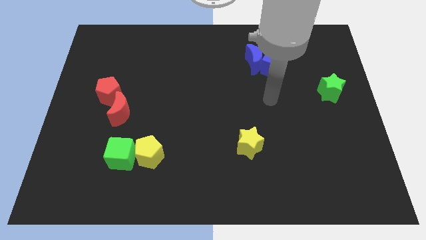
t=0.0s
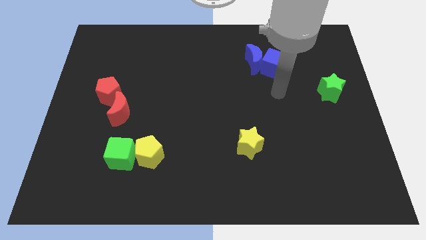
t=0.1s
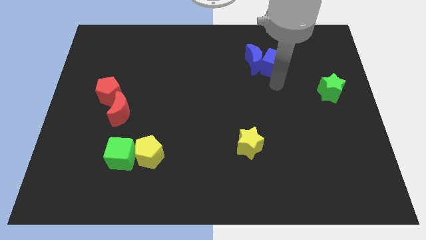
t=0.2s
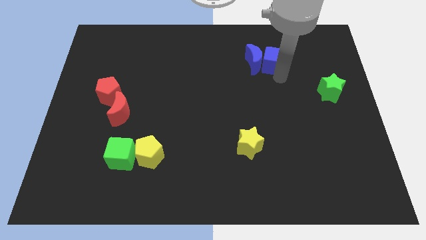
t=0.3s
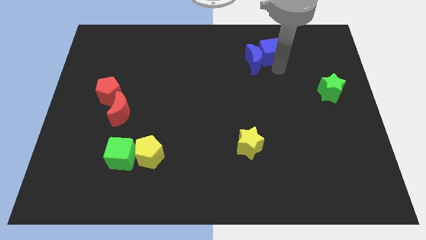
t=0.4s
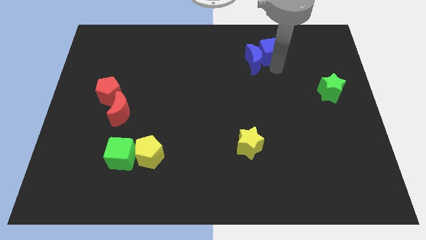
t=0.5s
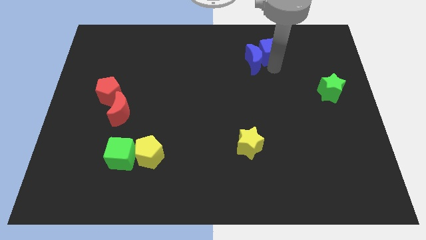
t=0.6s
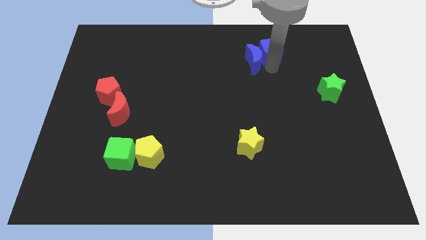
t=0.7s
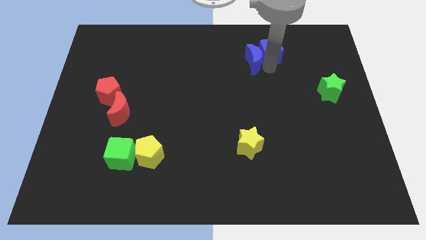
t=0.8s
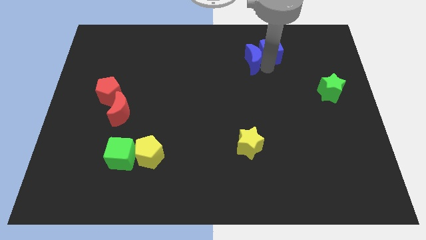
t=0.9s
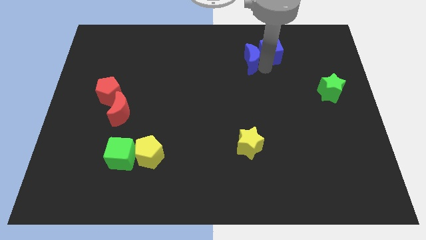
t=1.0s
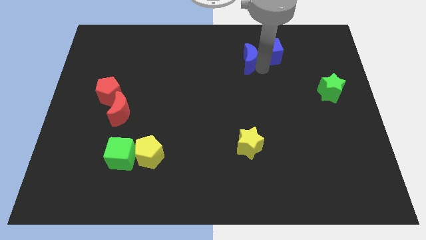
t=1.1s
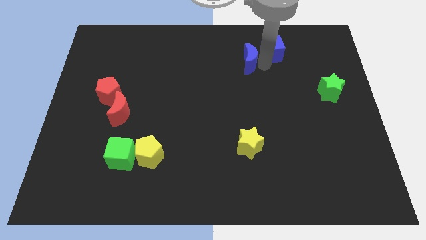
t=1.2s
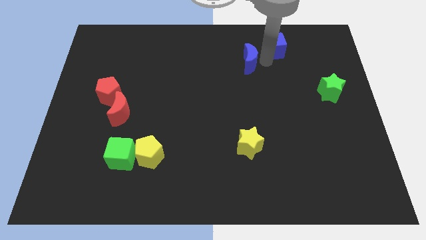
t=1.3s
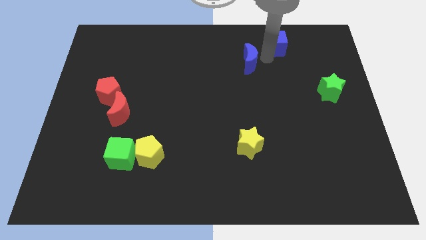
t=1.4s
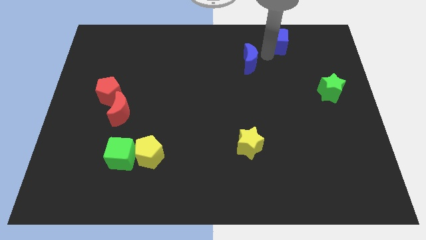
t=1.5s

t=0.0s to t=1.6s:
separate the blue moon from the blue cube

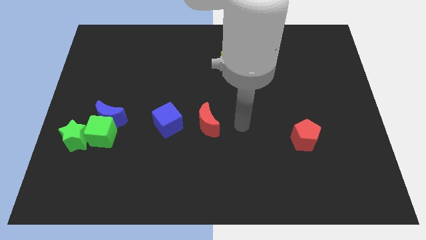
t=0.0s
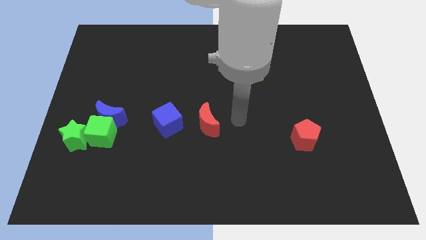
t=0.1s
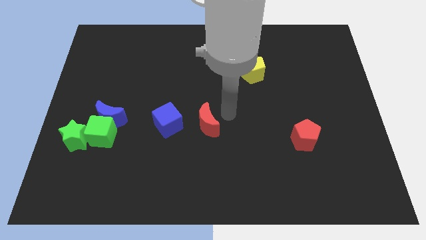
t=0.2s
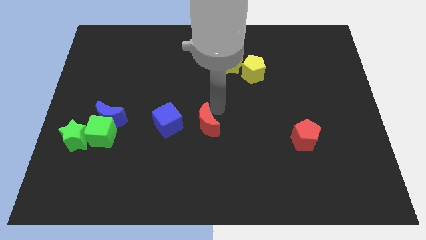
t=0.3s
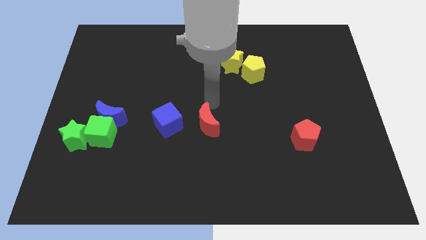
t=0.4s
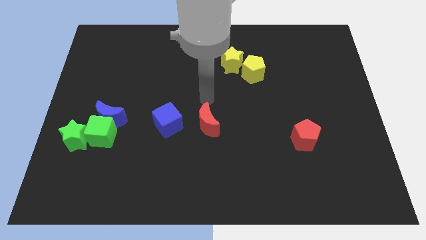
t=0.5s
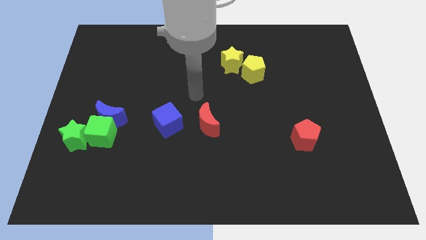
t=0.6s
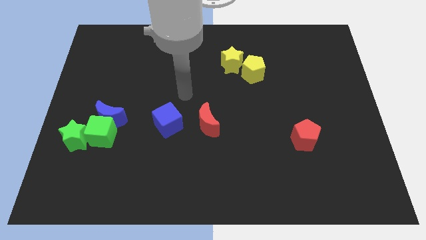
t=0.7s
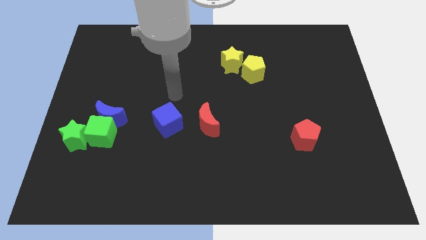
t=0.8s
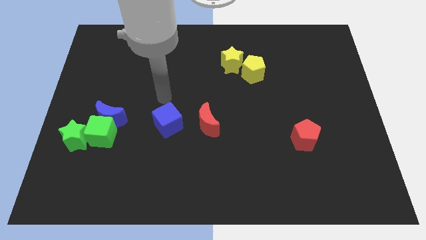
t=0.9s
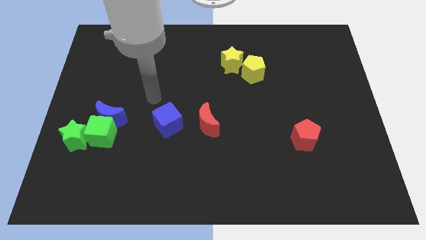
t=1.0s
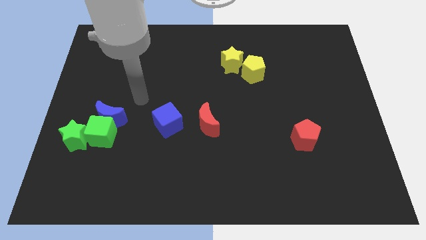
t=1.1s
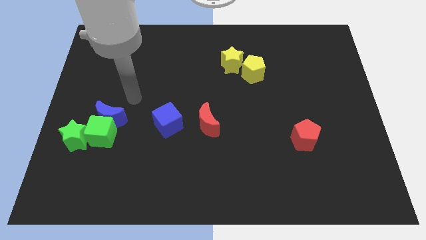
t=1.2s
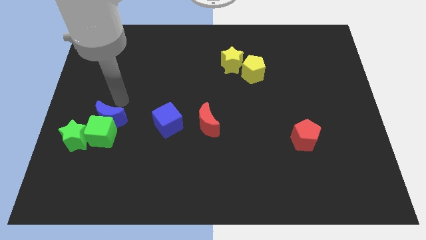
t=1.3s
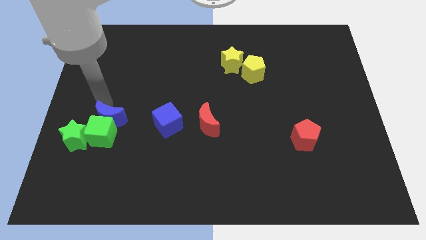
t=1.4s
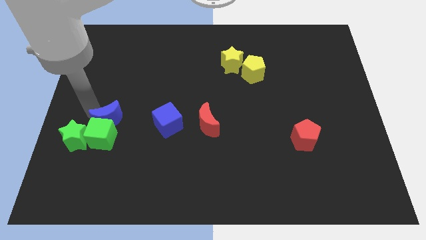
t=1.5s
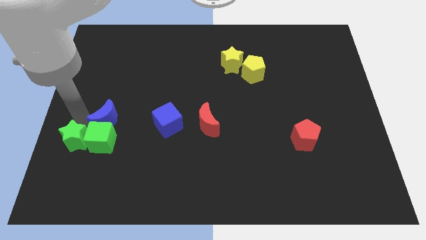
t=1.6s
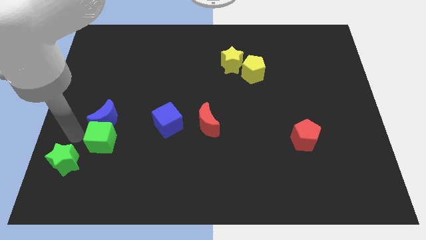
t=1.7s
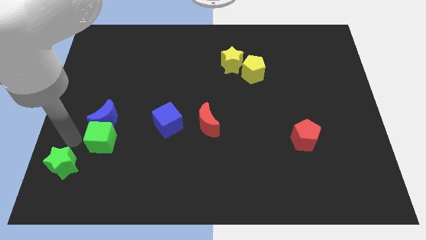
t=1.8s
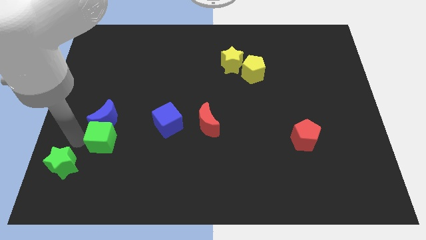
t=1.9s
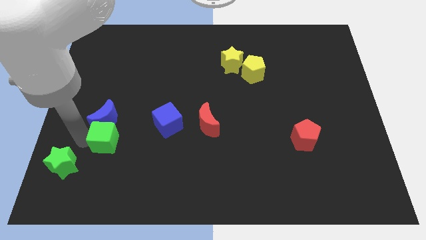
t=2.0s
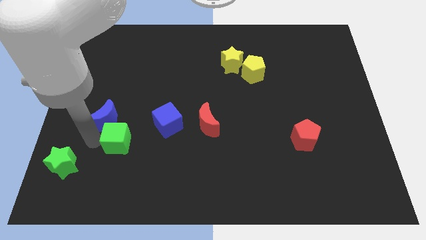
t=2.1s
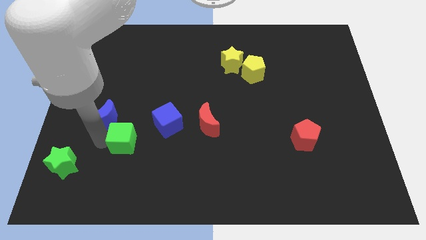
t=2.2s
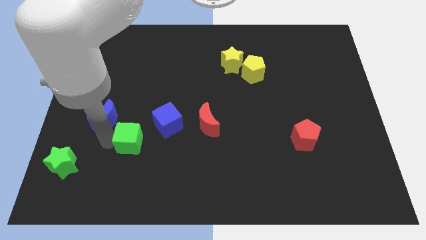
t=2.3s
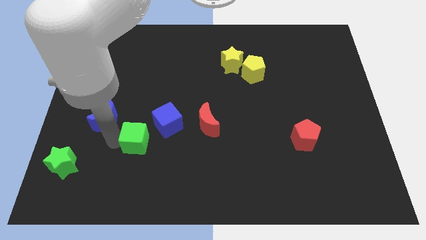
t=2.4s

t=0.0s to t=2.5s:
pull the green cube apart from the blue moon and green star

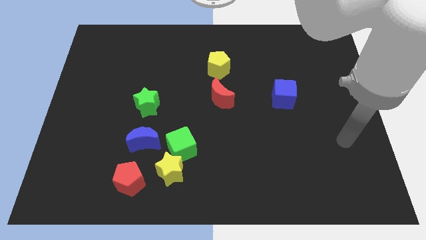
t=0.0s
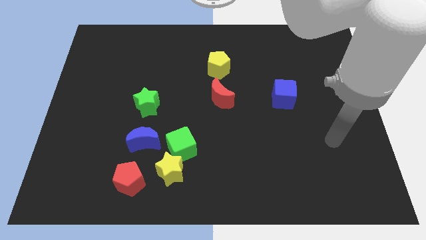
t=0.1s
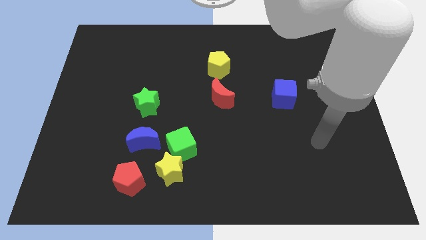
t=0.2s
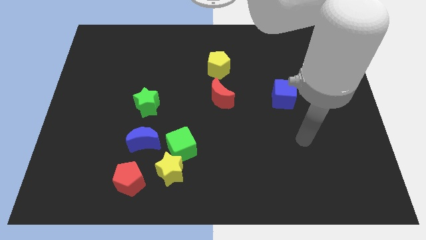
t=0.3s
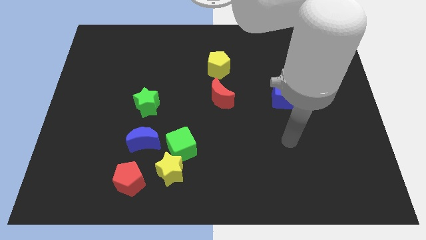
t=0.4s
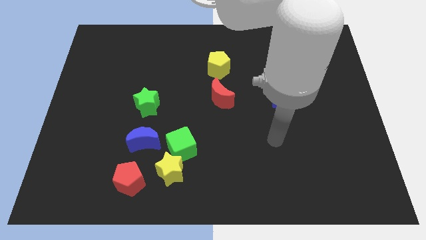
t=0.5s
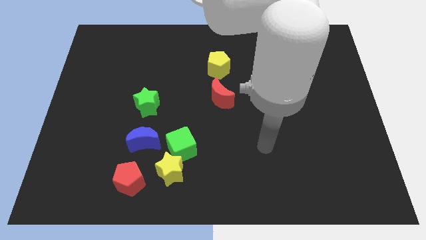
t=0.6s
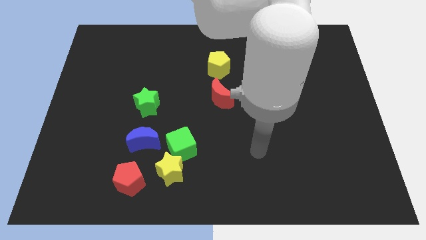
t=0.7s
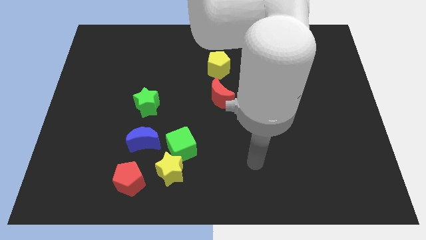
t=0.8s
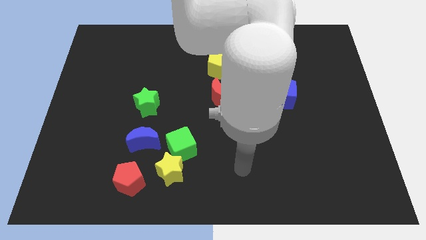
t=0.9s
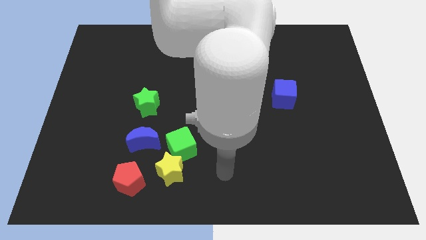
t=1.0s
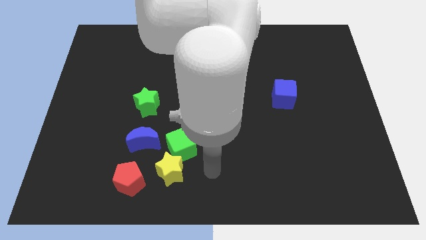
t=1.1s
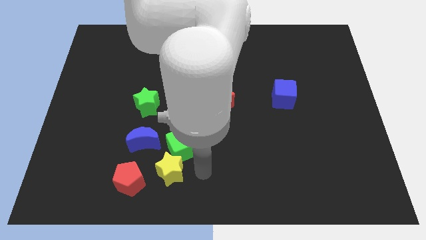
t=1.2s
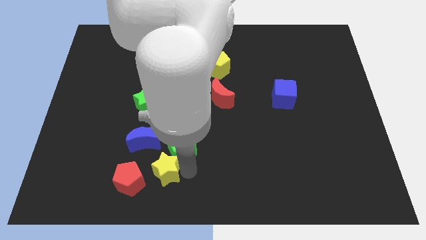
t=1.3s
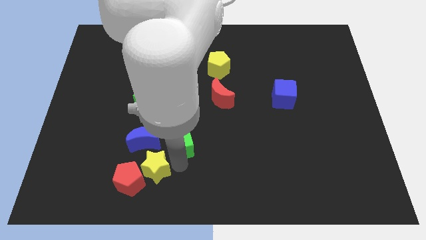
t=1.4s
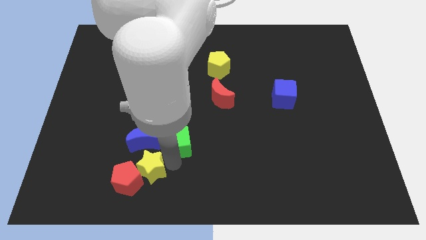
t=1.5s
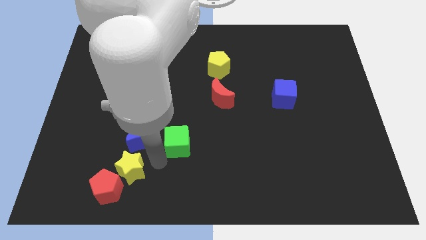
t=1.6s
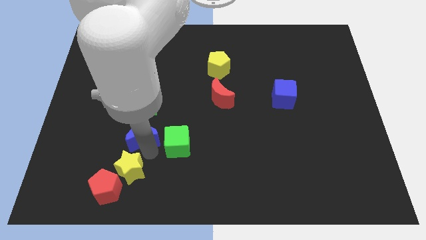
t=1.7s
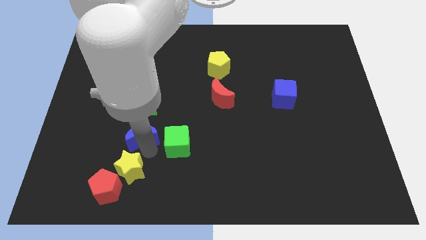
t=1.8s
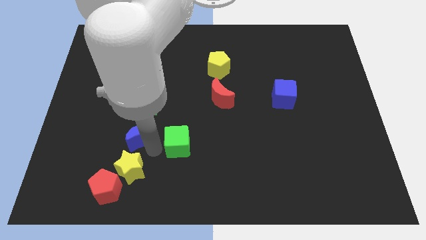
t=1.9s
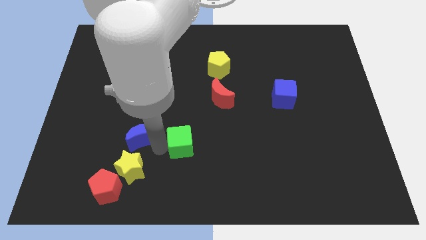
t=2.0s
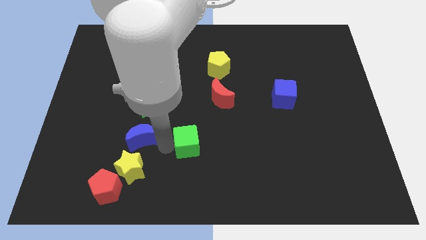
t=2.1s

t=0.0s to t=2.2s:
separate the green cube from the yellow star and blue moon

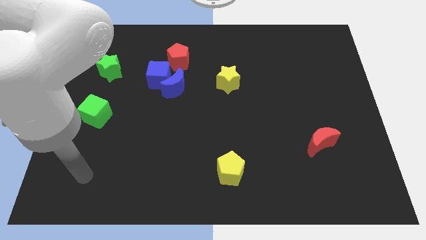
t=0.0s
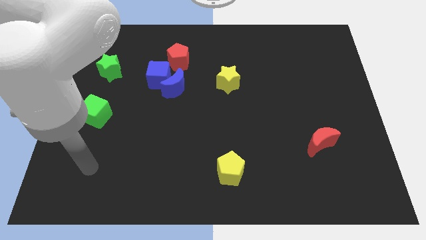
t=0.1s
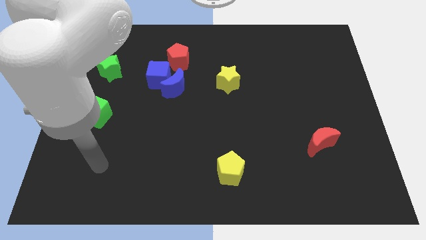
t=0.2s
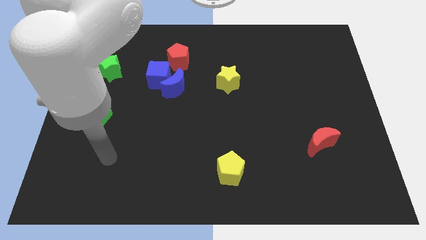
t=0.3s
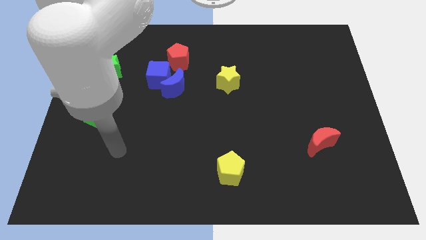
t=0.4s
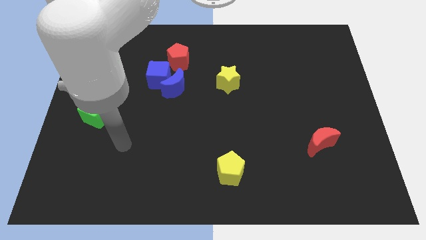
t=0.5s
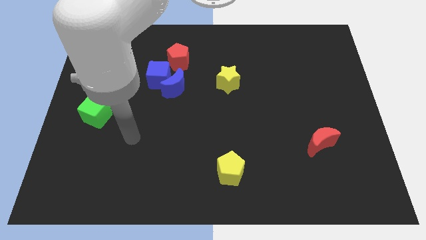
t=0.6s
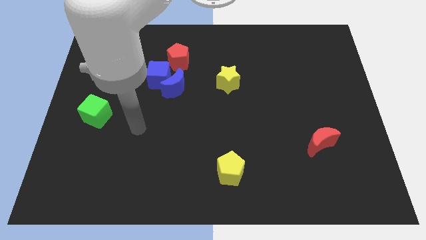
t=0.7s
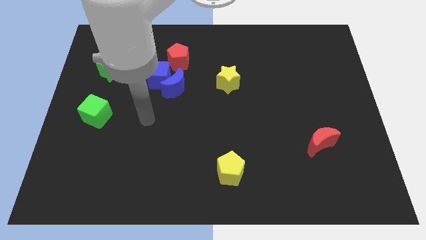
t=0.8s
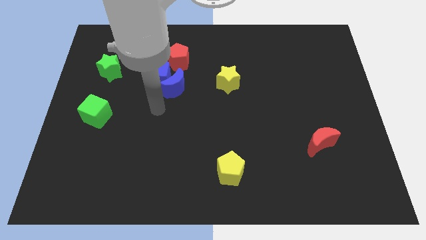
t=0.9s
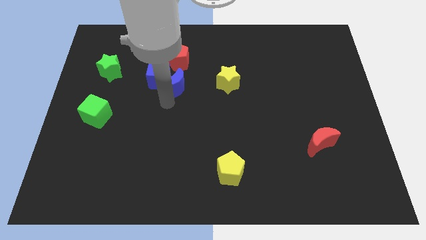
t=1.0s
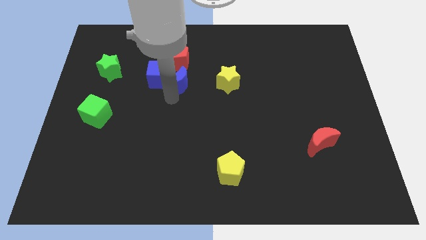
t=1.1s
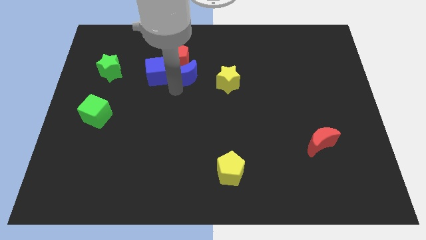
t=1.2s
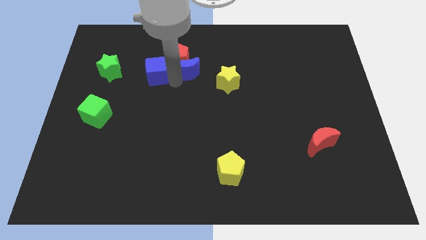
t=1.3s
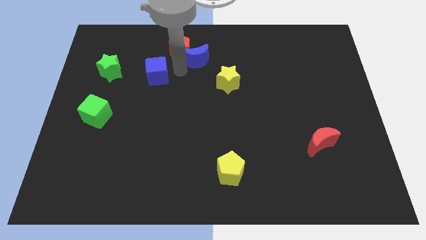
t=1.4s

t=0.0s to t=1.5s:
separate the blue cube from the blue moon and red pentagon

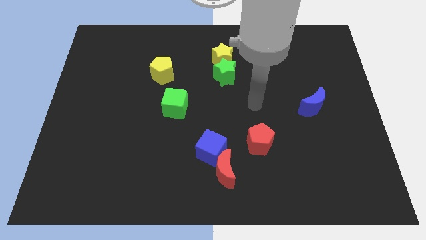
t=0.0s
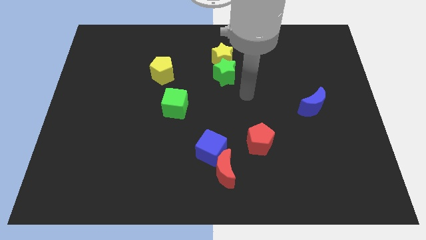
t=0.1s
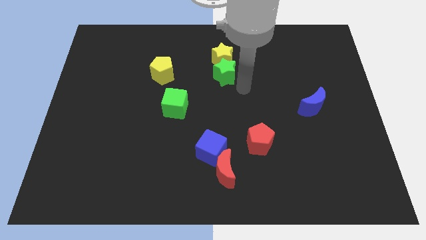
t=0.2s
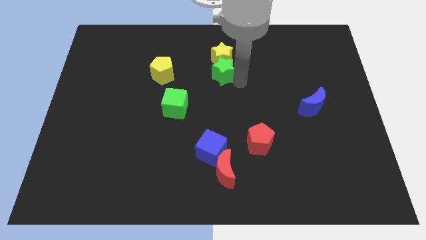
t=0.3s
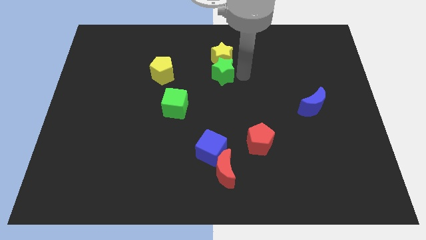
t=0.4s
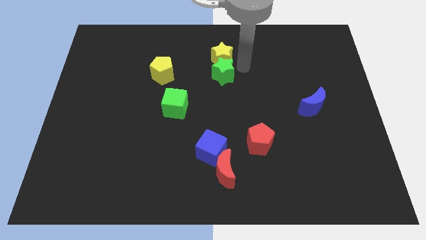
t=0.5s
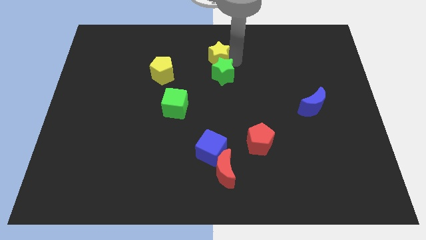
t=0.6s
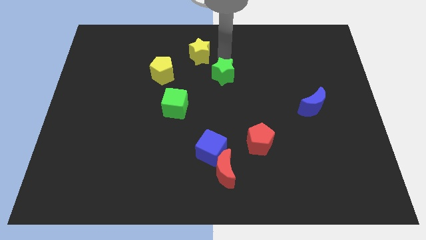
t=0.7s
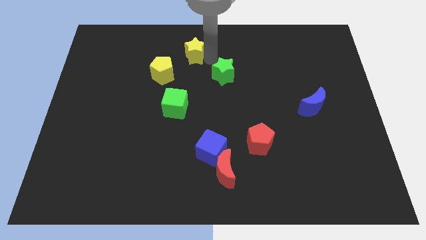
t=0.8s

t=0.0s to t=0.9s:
move the green star away from the yellow star

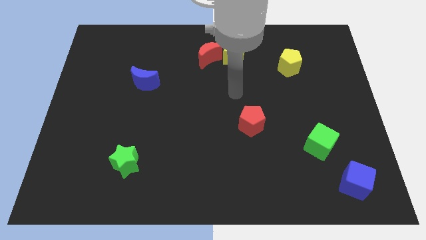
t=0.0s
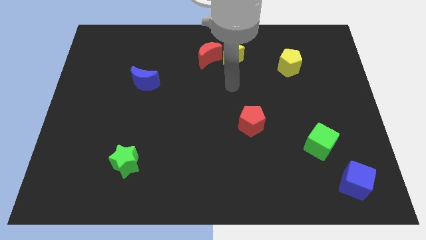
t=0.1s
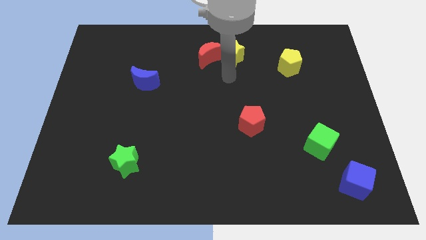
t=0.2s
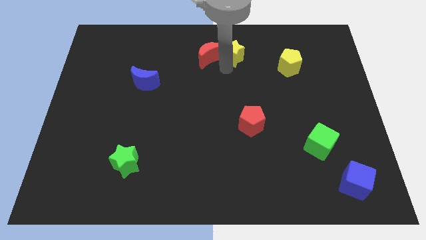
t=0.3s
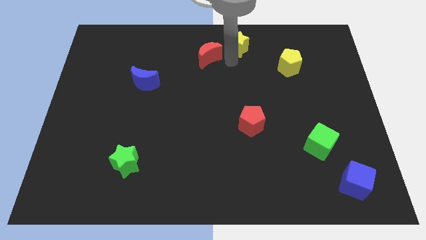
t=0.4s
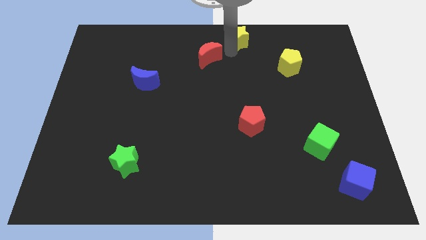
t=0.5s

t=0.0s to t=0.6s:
separate the red moon from the yellow star
